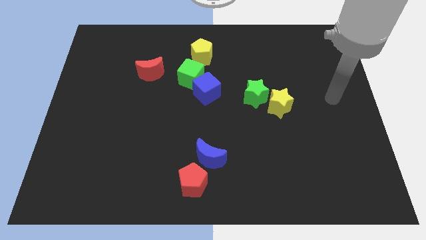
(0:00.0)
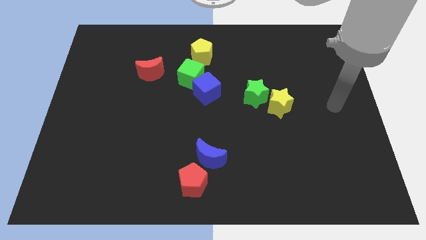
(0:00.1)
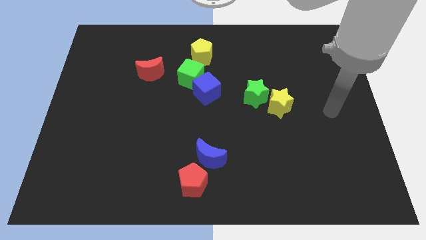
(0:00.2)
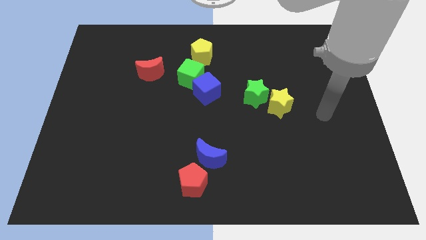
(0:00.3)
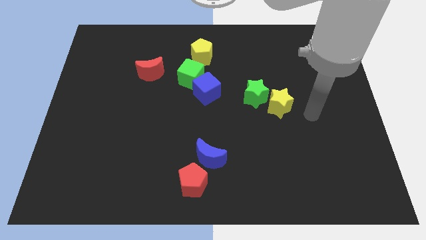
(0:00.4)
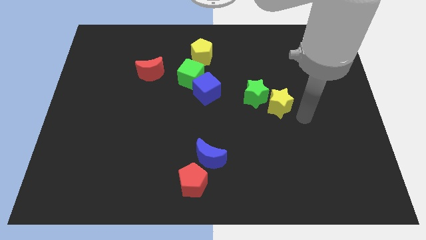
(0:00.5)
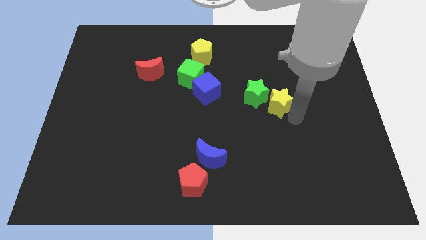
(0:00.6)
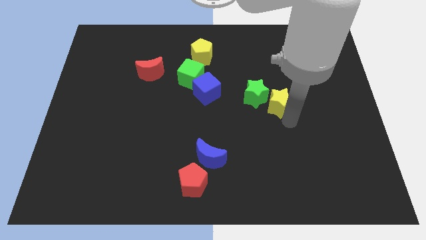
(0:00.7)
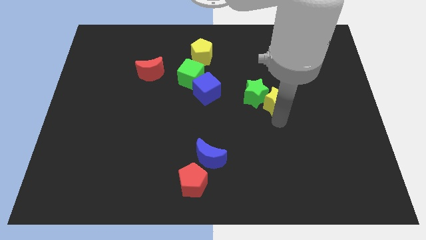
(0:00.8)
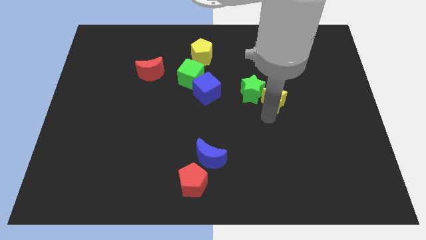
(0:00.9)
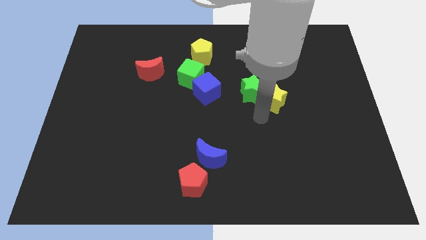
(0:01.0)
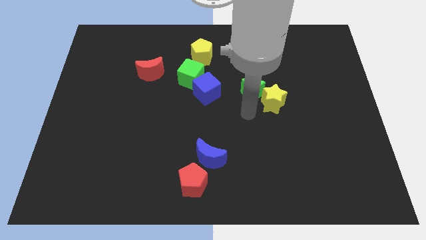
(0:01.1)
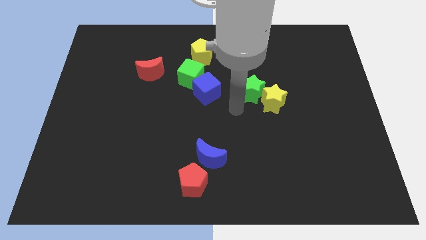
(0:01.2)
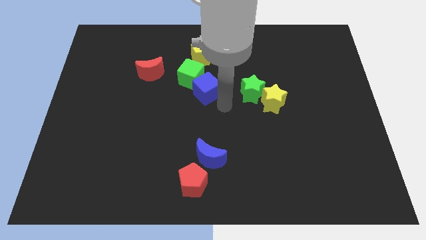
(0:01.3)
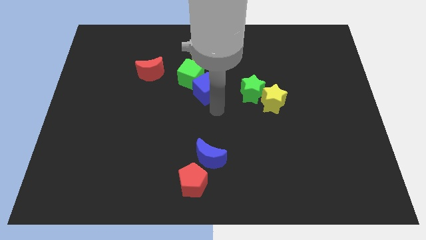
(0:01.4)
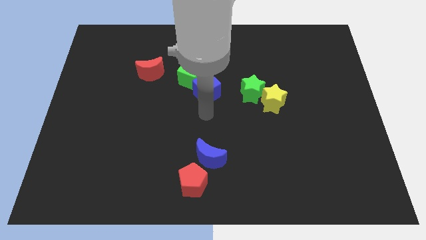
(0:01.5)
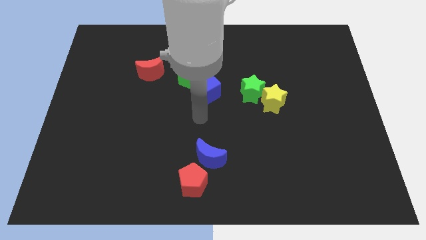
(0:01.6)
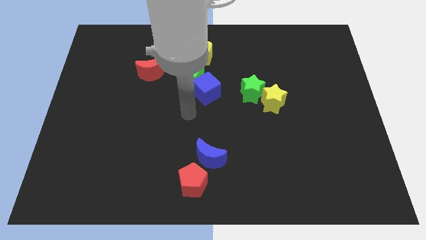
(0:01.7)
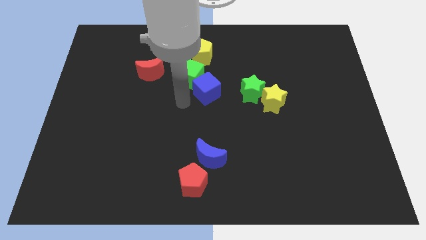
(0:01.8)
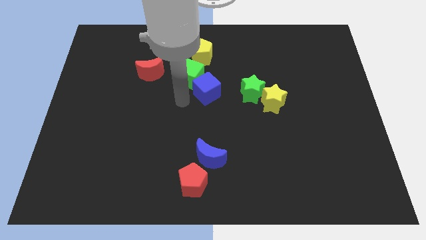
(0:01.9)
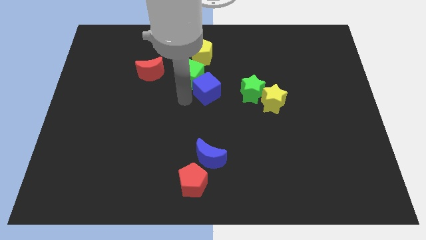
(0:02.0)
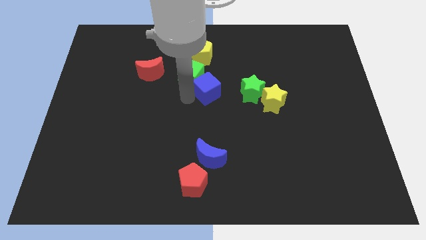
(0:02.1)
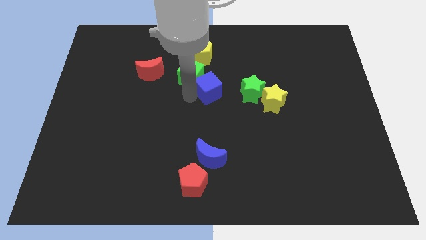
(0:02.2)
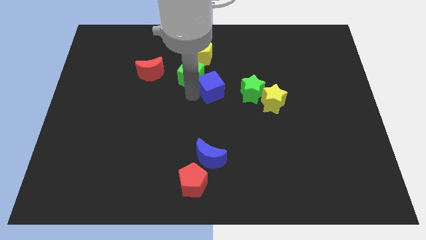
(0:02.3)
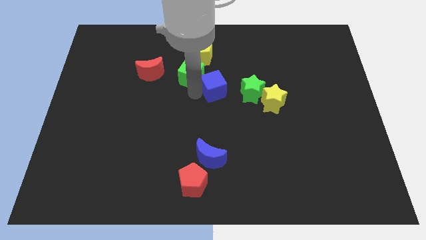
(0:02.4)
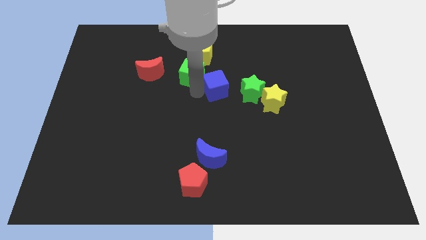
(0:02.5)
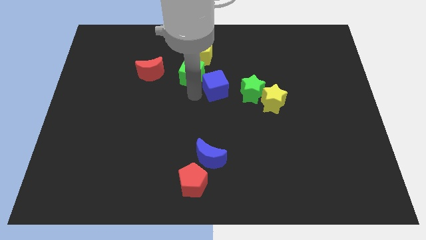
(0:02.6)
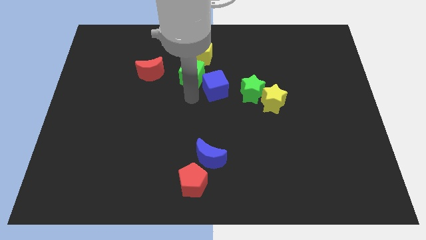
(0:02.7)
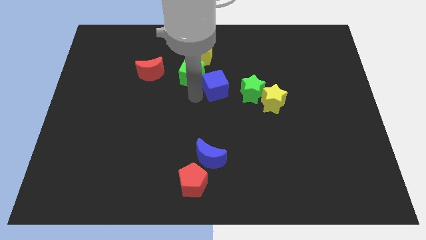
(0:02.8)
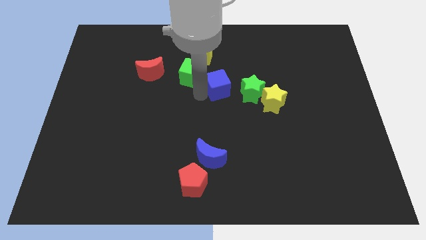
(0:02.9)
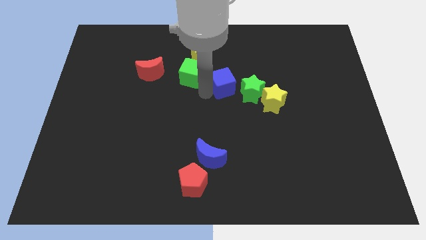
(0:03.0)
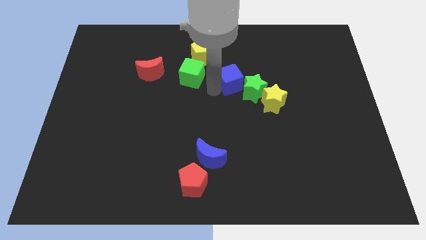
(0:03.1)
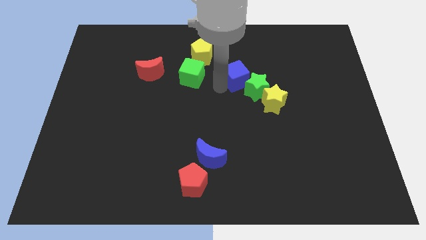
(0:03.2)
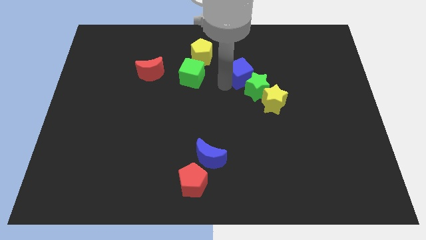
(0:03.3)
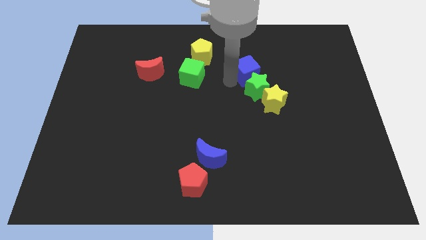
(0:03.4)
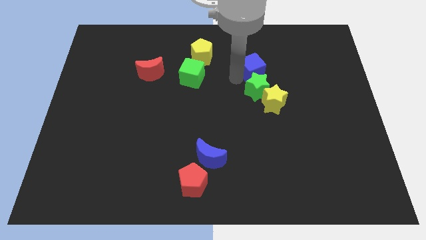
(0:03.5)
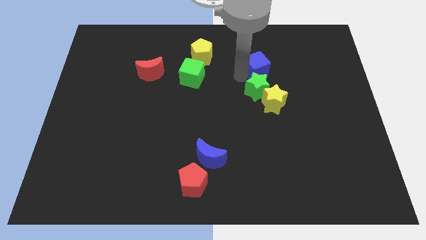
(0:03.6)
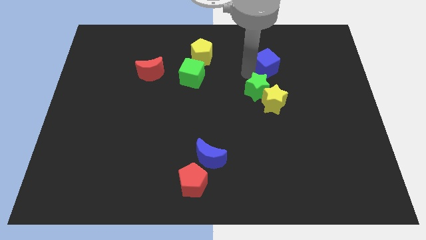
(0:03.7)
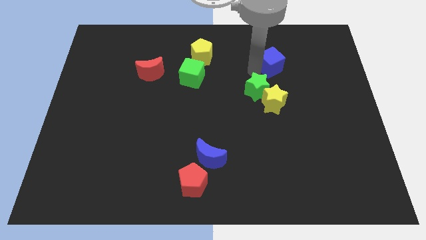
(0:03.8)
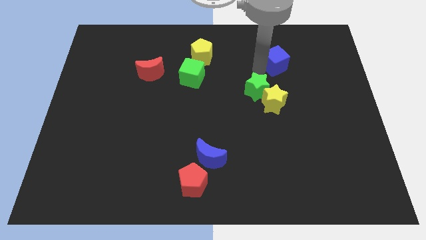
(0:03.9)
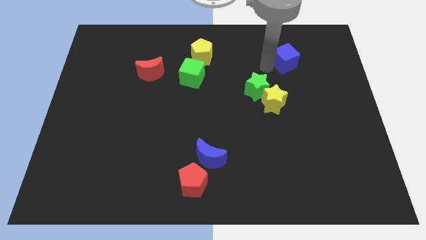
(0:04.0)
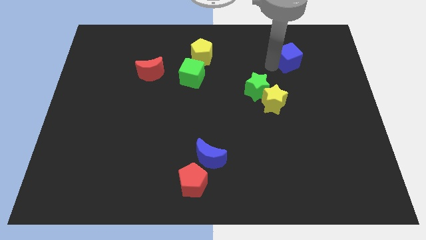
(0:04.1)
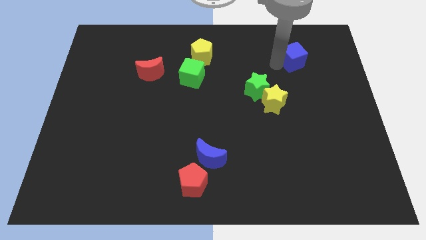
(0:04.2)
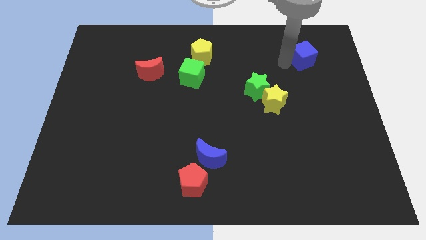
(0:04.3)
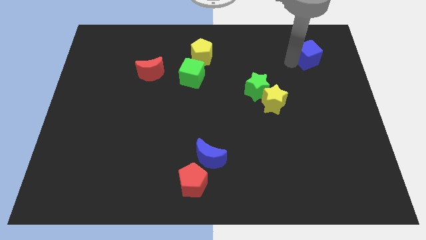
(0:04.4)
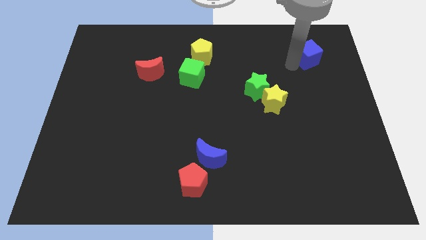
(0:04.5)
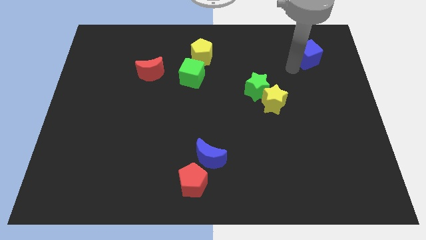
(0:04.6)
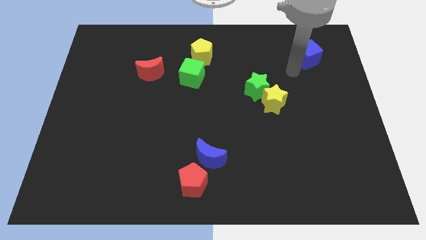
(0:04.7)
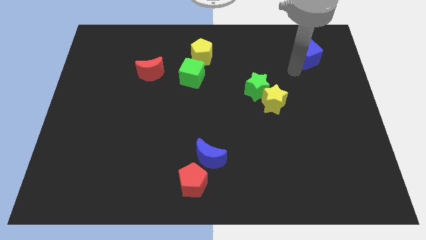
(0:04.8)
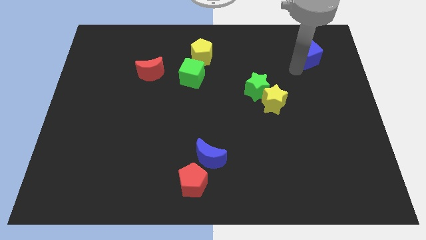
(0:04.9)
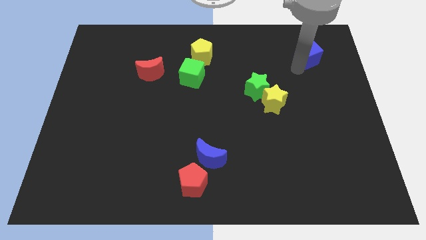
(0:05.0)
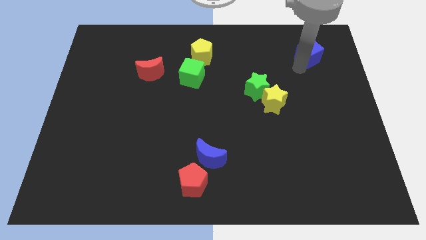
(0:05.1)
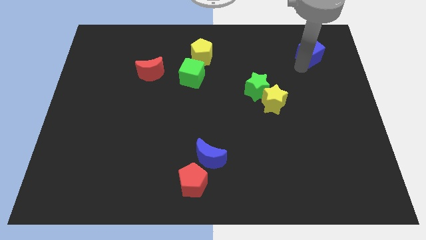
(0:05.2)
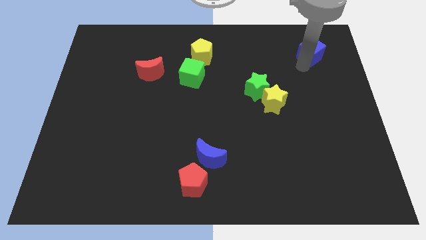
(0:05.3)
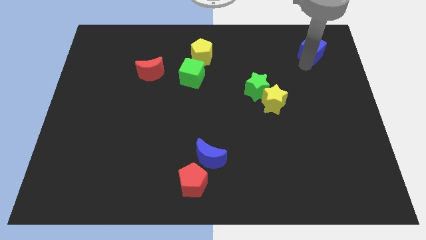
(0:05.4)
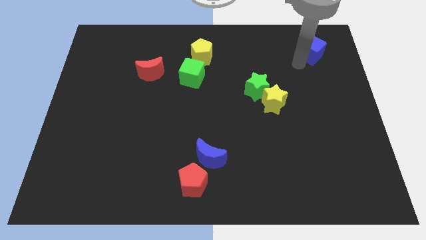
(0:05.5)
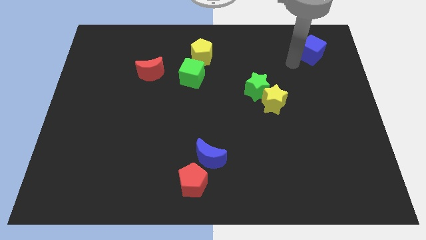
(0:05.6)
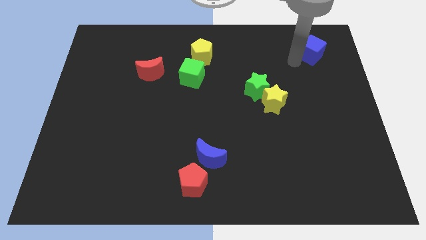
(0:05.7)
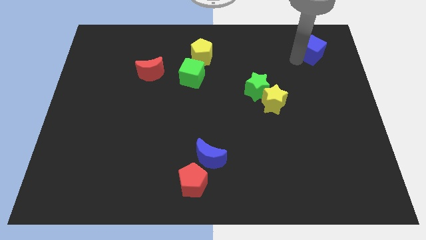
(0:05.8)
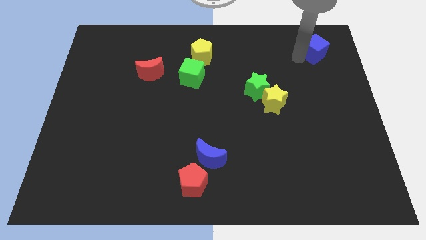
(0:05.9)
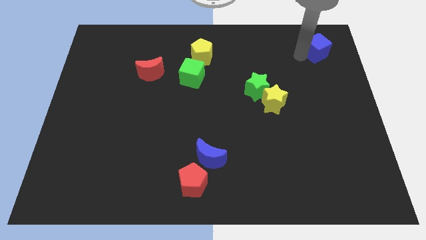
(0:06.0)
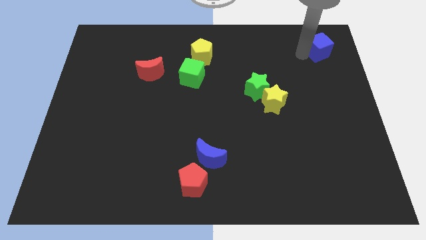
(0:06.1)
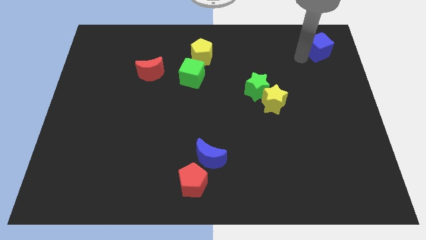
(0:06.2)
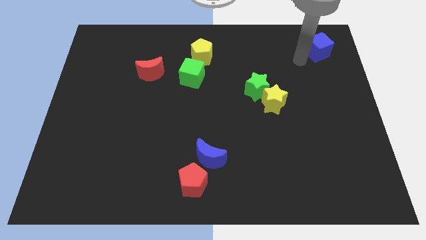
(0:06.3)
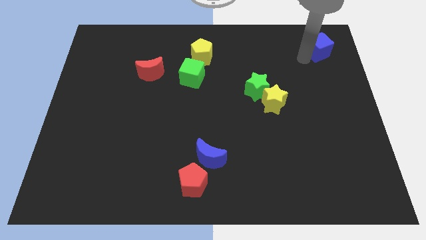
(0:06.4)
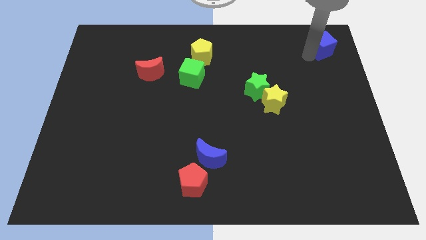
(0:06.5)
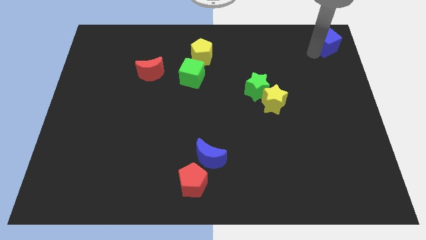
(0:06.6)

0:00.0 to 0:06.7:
move the blue cube to the top right of the board

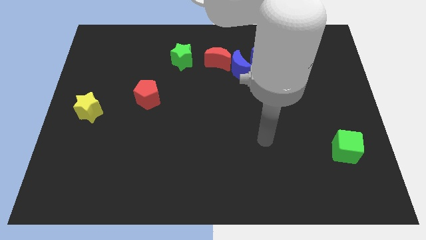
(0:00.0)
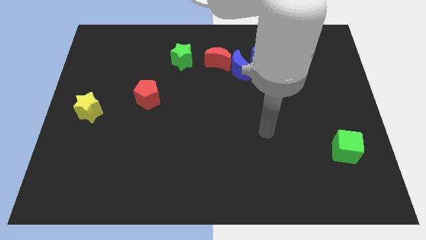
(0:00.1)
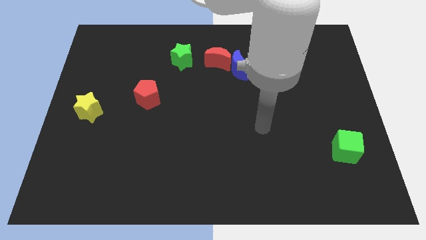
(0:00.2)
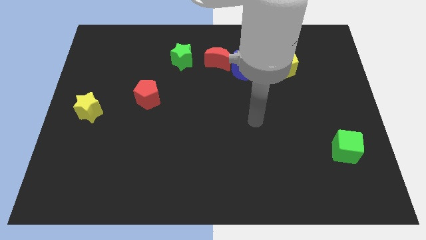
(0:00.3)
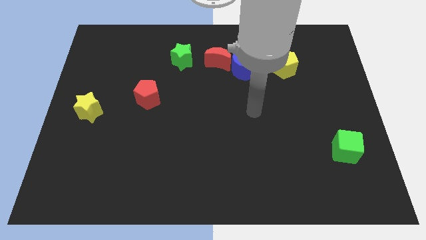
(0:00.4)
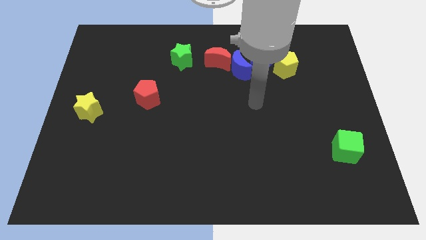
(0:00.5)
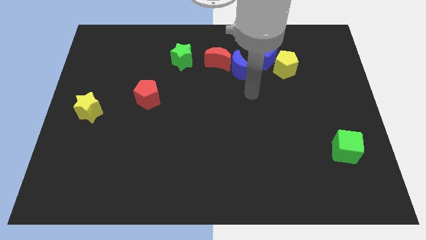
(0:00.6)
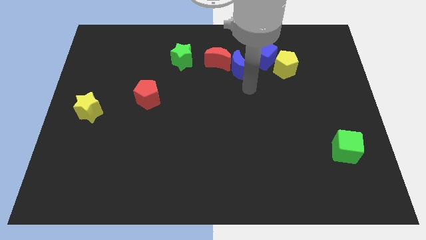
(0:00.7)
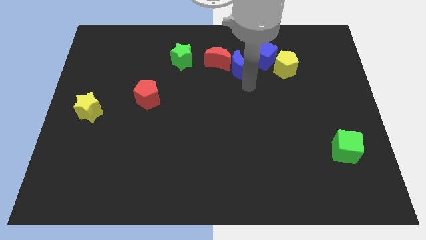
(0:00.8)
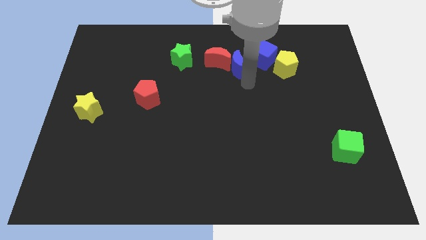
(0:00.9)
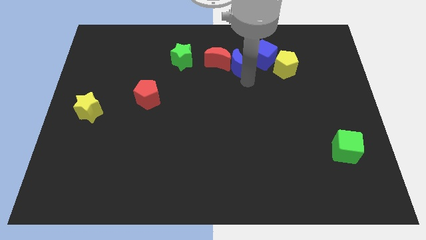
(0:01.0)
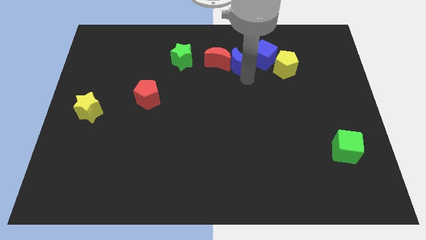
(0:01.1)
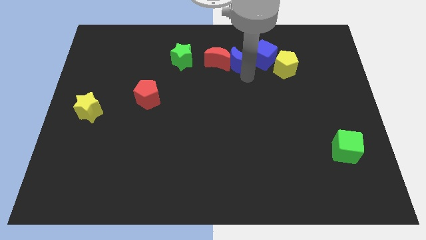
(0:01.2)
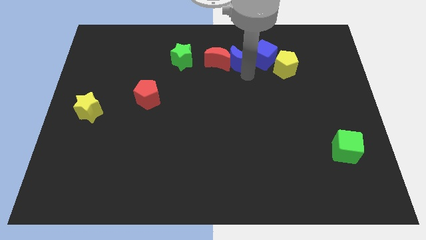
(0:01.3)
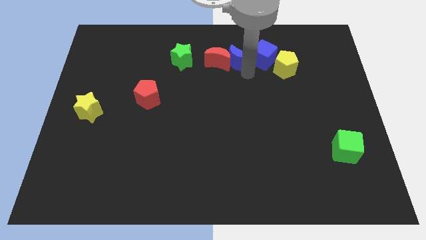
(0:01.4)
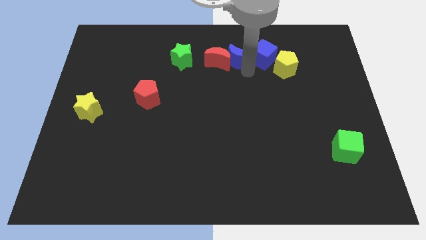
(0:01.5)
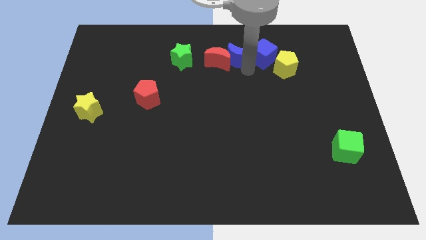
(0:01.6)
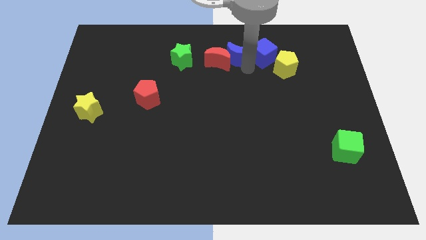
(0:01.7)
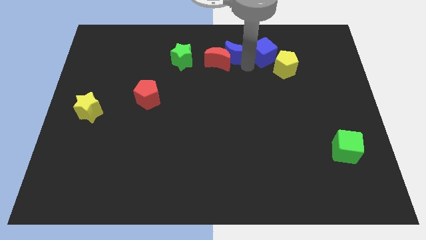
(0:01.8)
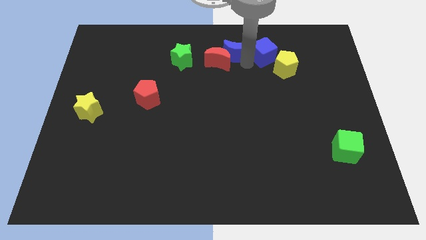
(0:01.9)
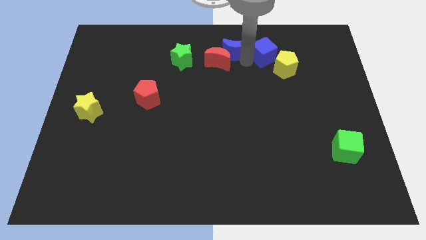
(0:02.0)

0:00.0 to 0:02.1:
slide the blue moon to the top side
